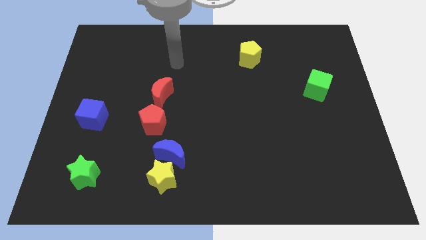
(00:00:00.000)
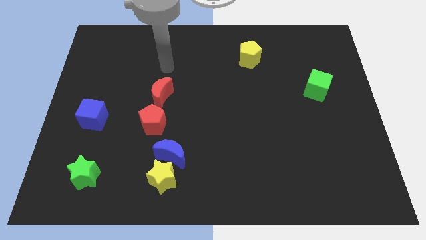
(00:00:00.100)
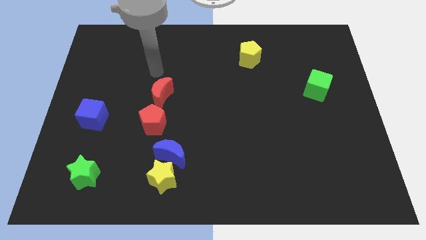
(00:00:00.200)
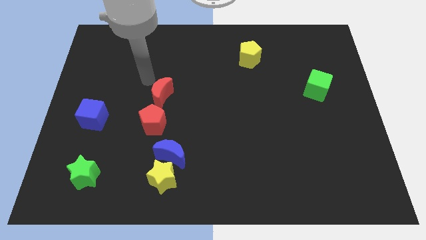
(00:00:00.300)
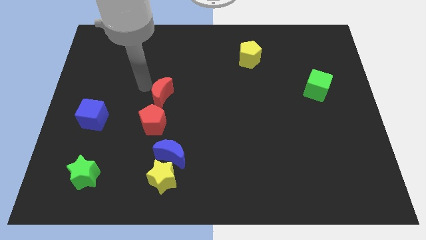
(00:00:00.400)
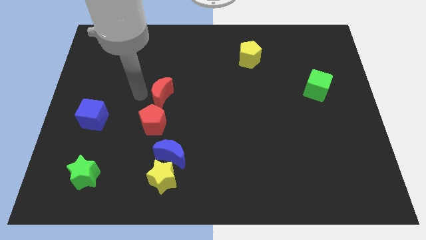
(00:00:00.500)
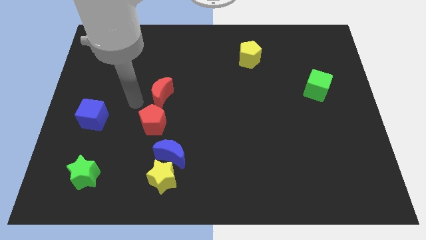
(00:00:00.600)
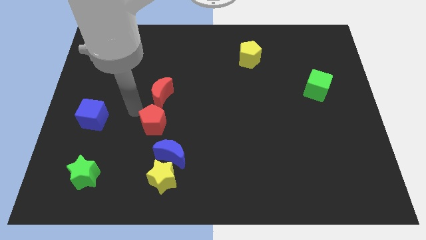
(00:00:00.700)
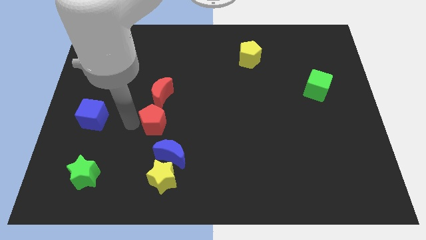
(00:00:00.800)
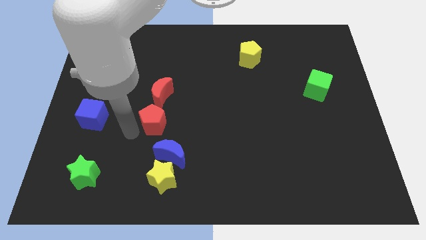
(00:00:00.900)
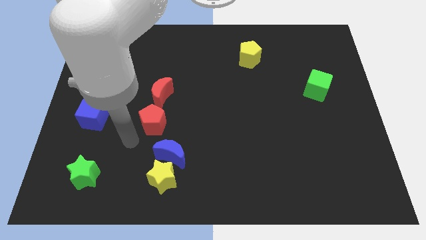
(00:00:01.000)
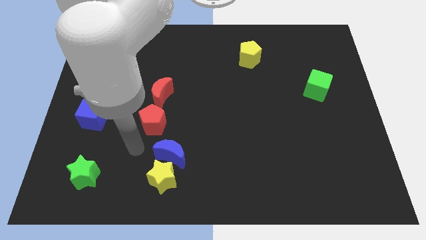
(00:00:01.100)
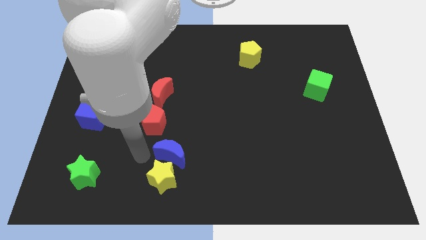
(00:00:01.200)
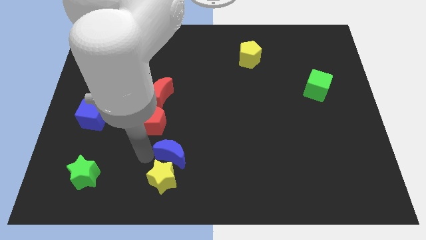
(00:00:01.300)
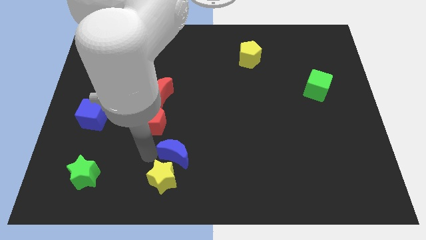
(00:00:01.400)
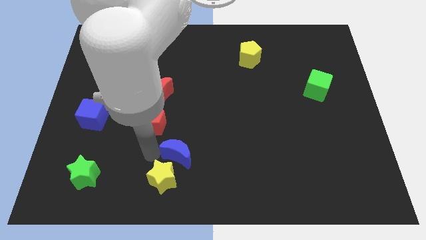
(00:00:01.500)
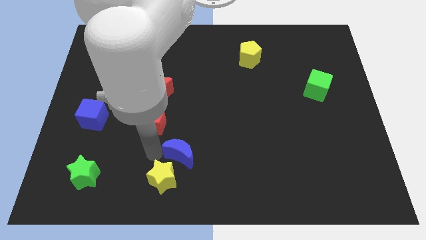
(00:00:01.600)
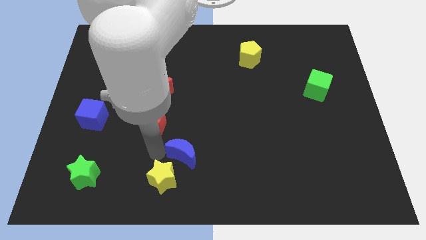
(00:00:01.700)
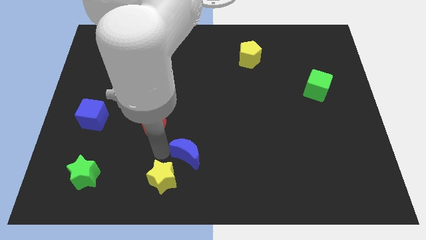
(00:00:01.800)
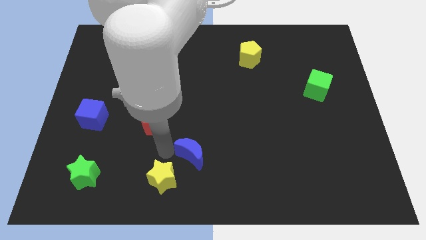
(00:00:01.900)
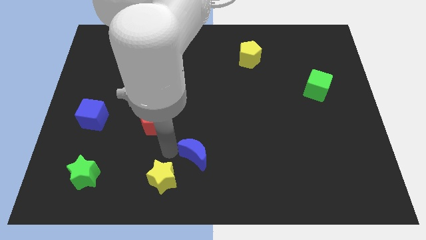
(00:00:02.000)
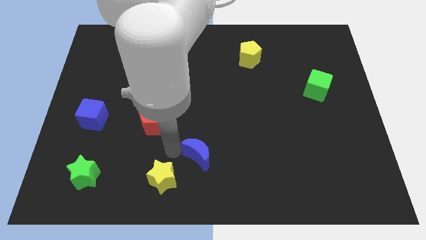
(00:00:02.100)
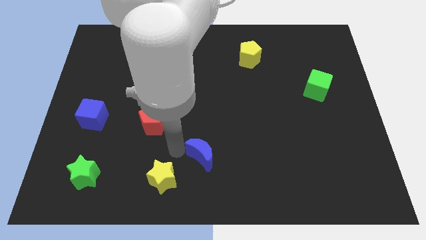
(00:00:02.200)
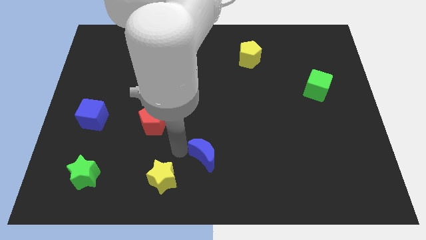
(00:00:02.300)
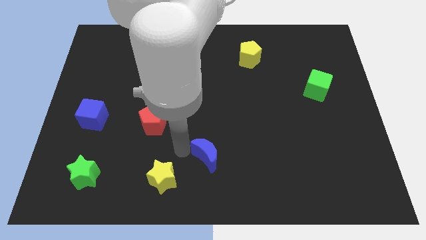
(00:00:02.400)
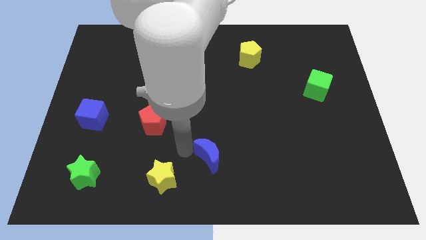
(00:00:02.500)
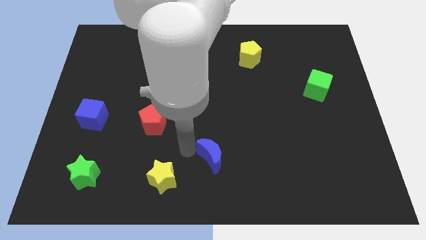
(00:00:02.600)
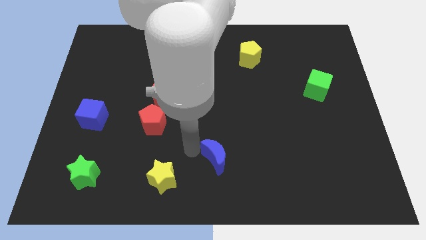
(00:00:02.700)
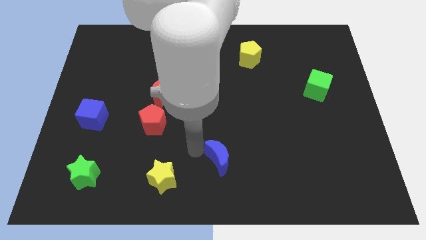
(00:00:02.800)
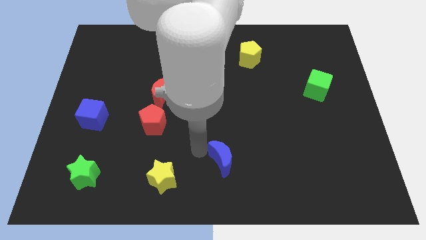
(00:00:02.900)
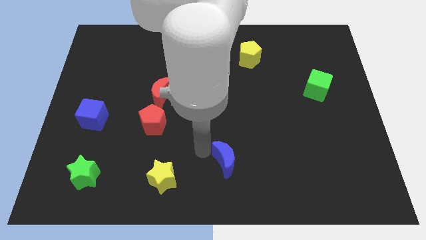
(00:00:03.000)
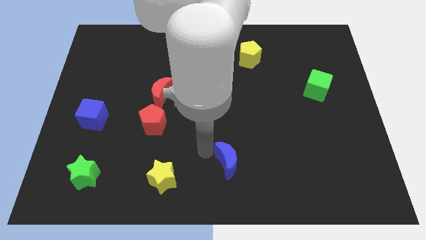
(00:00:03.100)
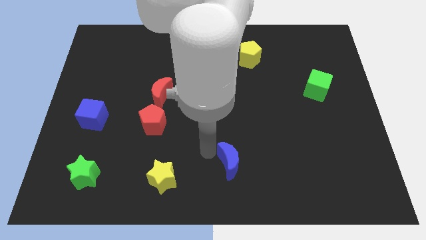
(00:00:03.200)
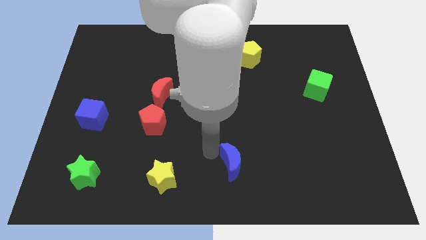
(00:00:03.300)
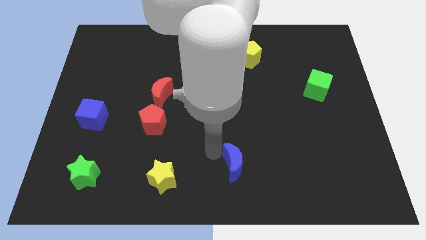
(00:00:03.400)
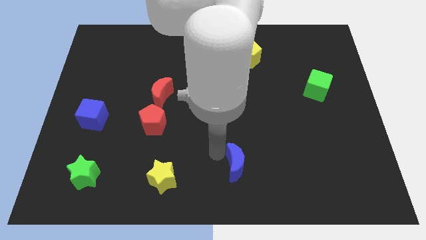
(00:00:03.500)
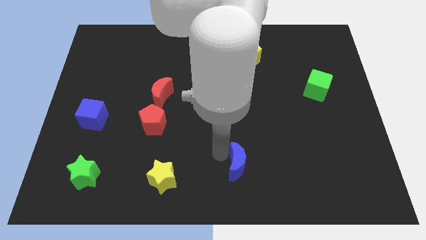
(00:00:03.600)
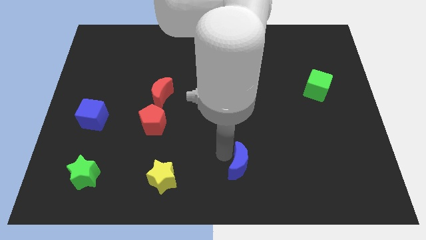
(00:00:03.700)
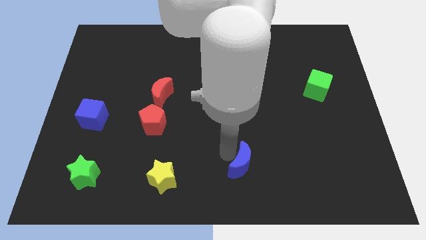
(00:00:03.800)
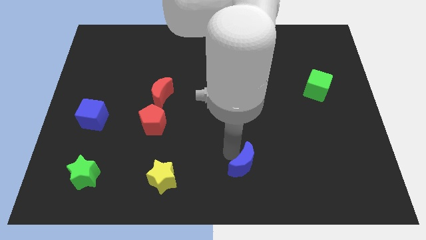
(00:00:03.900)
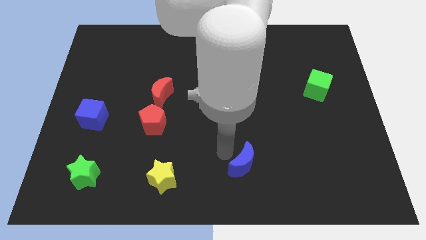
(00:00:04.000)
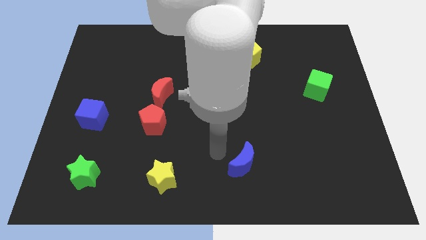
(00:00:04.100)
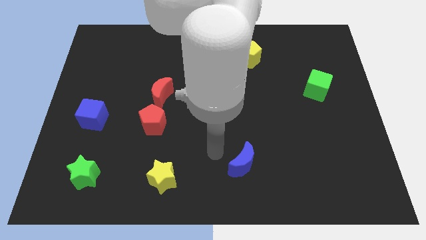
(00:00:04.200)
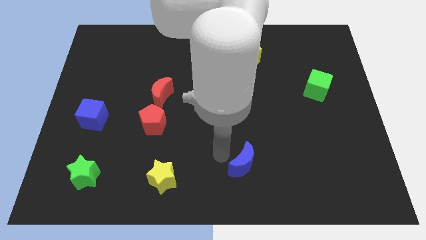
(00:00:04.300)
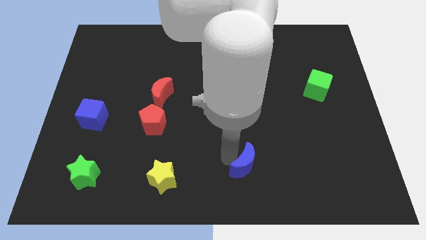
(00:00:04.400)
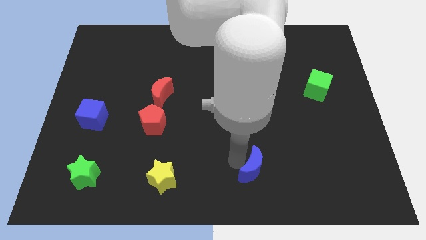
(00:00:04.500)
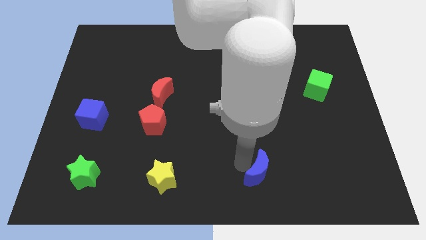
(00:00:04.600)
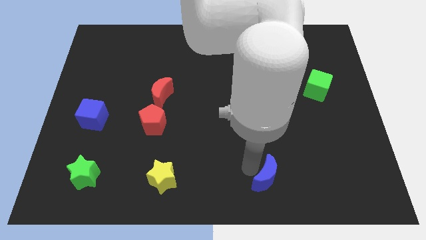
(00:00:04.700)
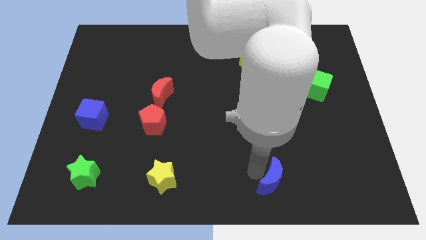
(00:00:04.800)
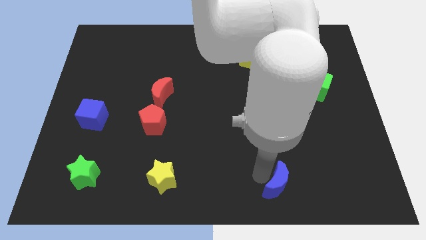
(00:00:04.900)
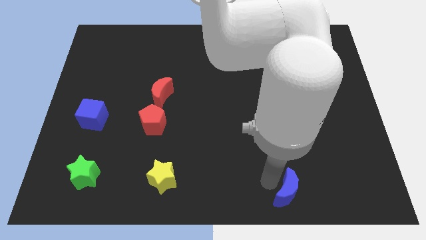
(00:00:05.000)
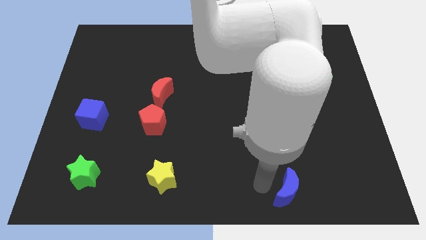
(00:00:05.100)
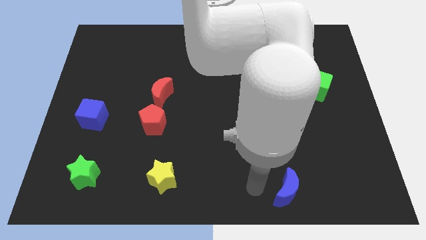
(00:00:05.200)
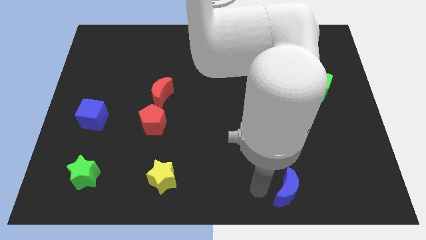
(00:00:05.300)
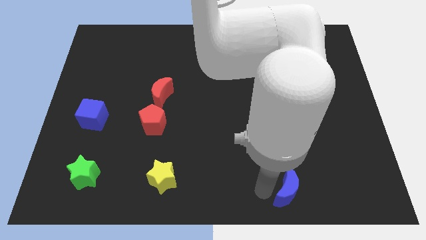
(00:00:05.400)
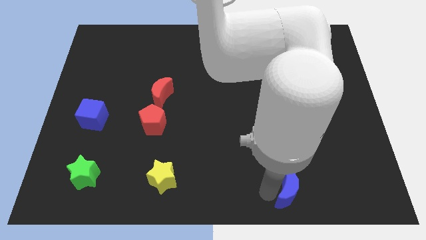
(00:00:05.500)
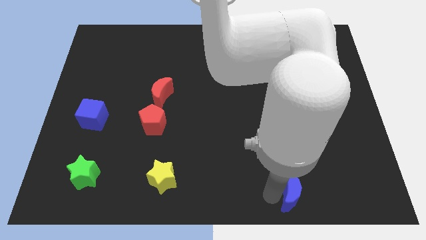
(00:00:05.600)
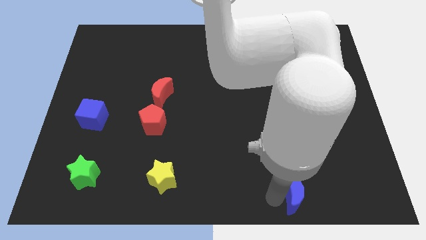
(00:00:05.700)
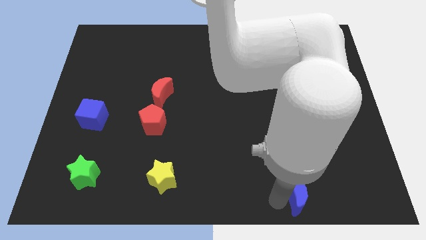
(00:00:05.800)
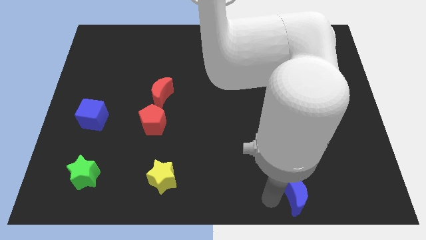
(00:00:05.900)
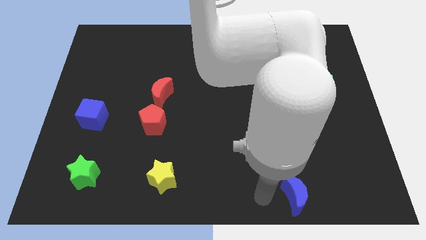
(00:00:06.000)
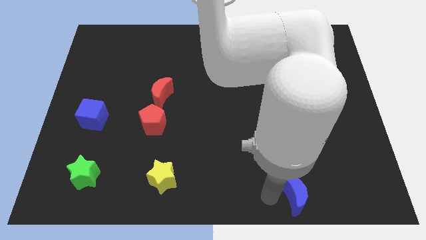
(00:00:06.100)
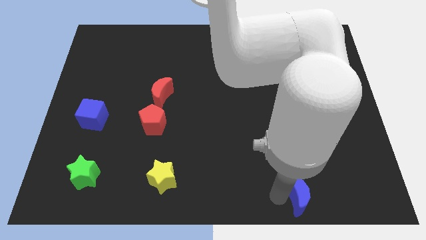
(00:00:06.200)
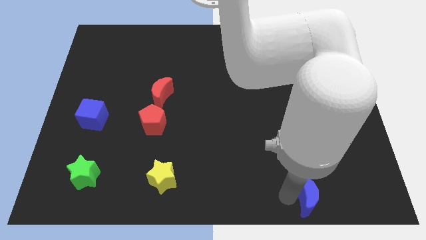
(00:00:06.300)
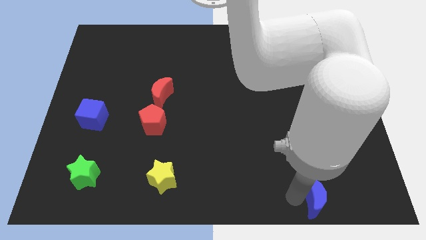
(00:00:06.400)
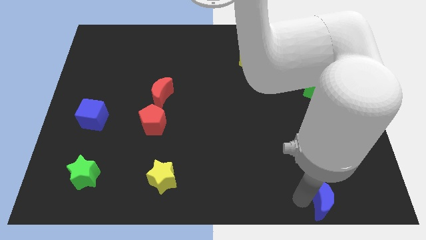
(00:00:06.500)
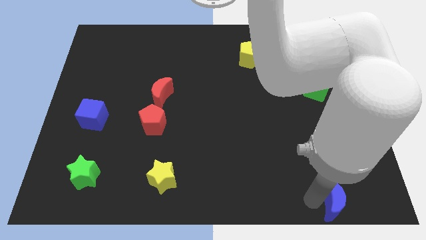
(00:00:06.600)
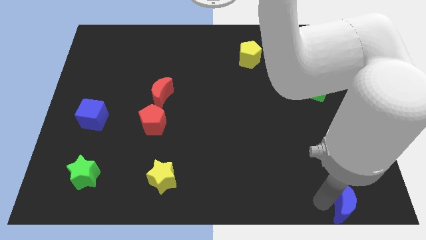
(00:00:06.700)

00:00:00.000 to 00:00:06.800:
slide the blue moon to the bottom right of the board
